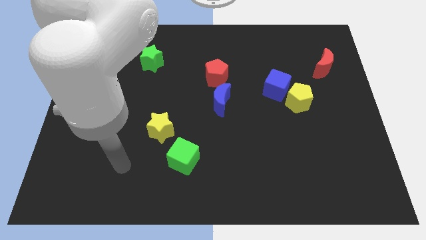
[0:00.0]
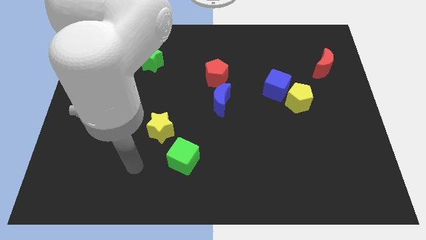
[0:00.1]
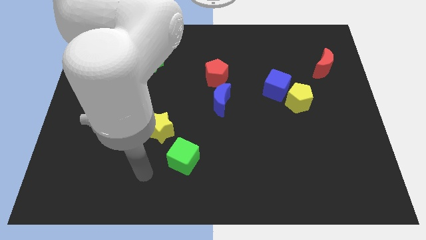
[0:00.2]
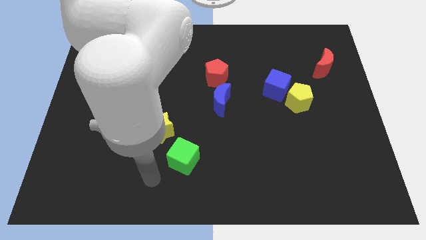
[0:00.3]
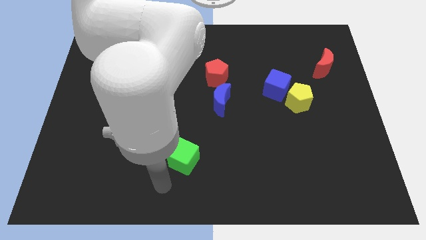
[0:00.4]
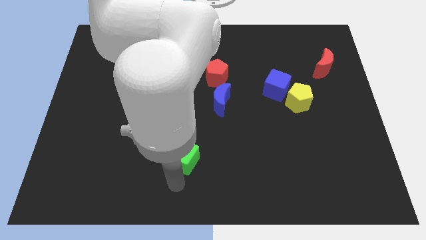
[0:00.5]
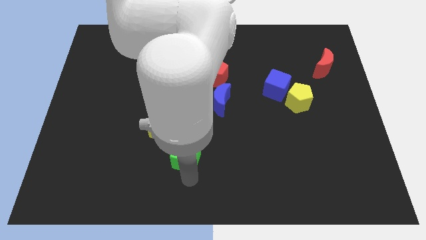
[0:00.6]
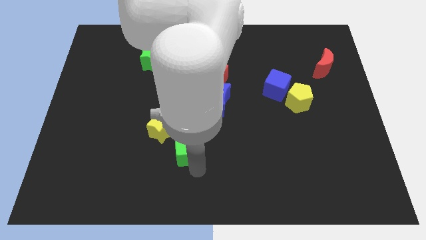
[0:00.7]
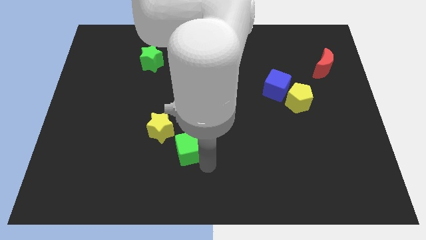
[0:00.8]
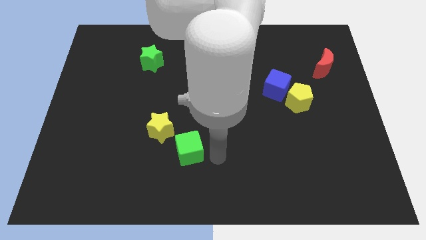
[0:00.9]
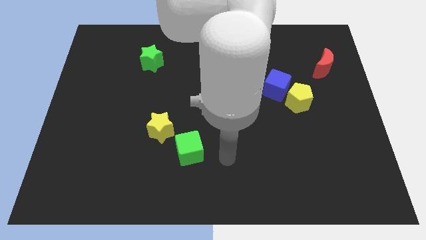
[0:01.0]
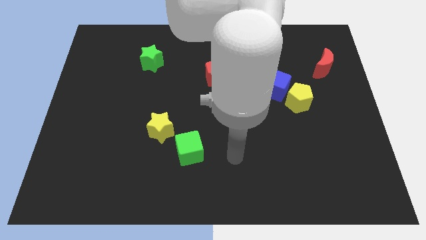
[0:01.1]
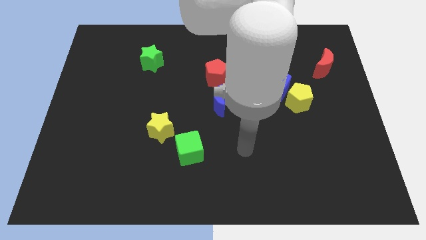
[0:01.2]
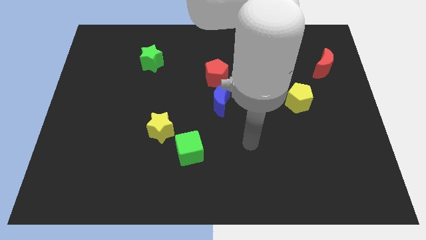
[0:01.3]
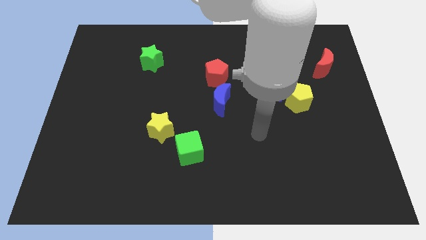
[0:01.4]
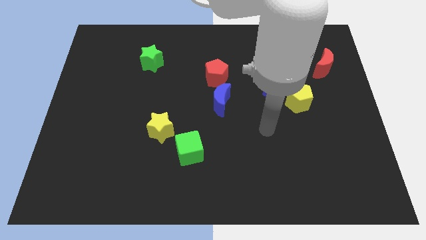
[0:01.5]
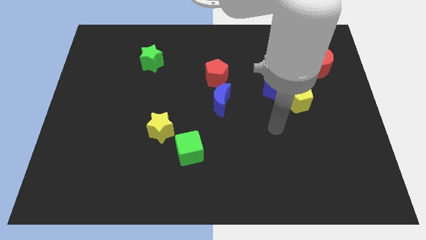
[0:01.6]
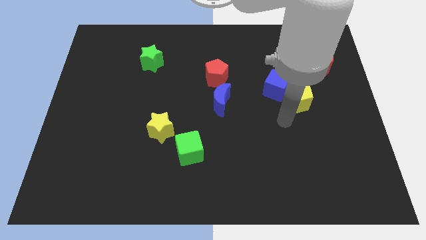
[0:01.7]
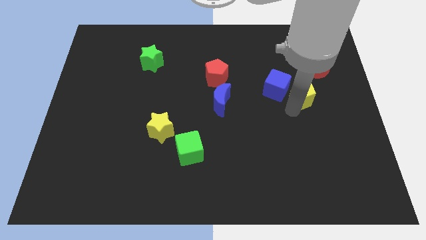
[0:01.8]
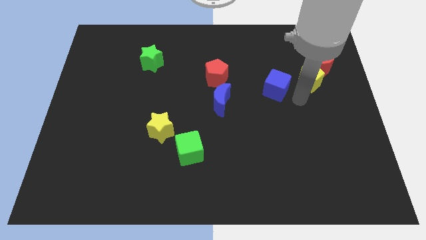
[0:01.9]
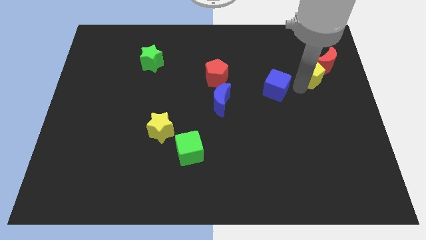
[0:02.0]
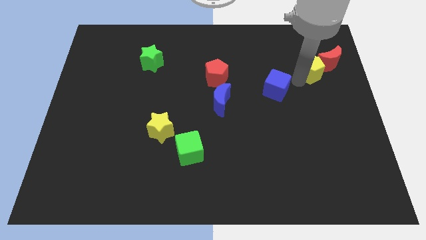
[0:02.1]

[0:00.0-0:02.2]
pull the blue cube apart from the yellow pentagon

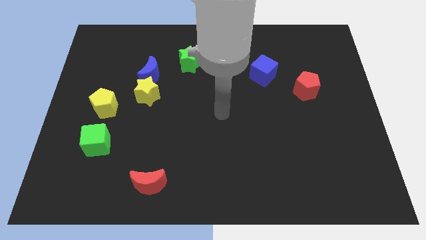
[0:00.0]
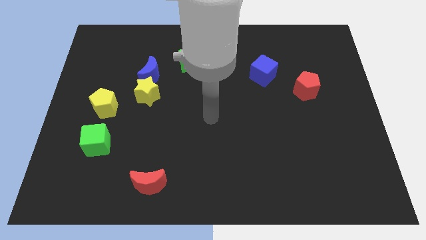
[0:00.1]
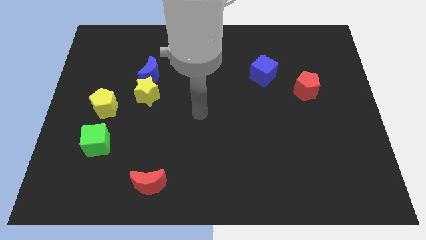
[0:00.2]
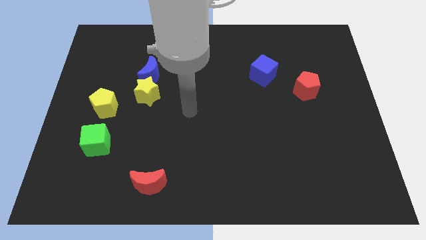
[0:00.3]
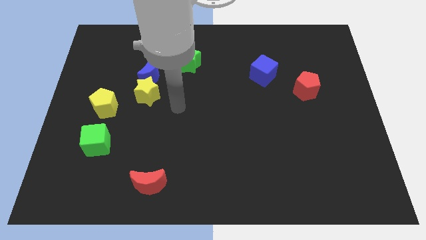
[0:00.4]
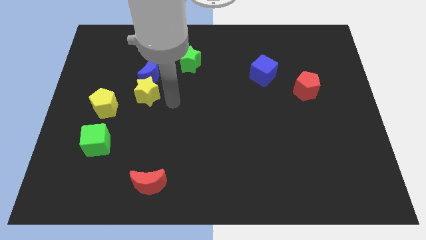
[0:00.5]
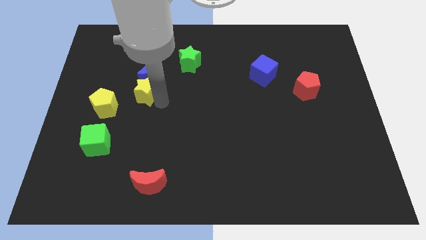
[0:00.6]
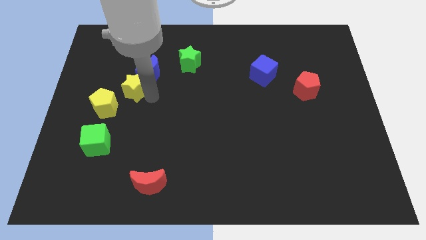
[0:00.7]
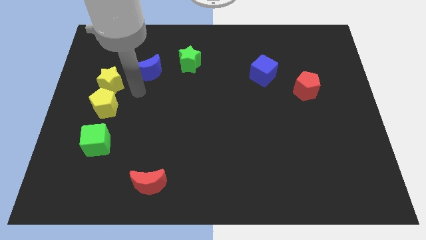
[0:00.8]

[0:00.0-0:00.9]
separate the blue moon from the yellow star

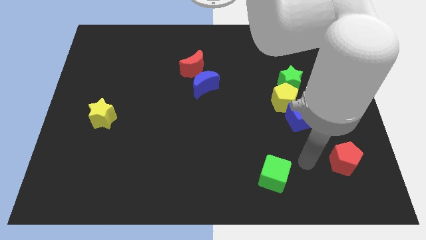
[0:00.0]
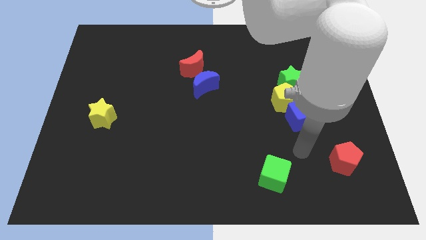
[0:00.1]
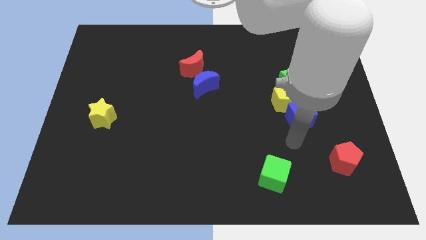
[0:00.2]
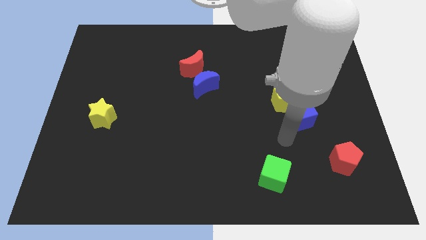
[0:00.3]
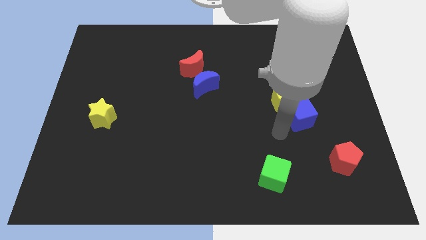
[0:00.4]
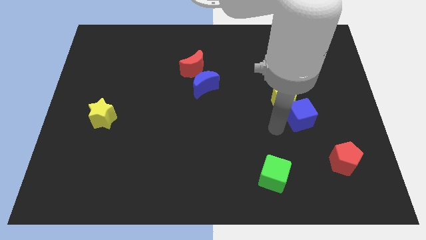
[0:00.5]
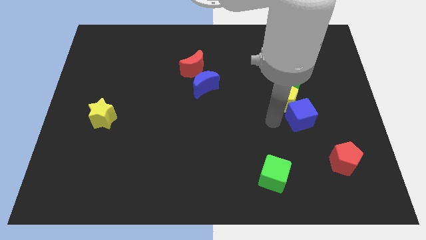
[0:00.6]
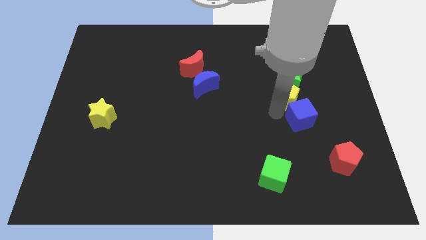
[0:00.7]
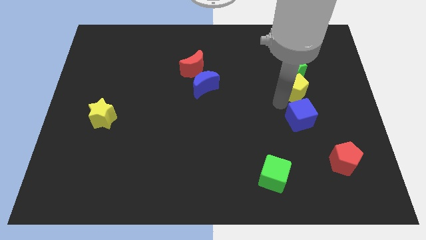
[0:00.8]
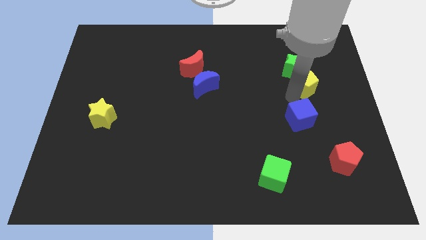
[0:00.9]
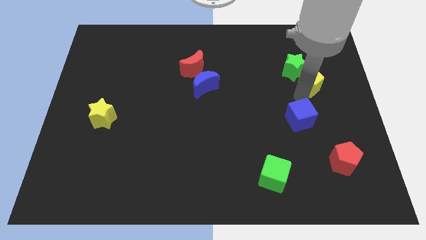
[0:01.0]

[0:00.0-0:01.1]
separate the blue cube from the yellow pentagon

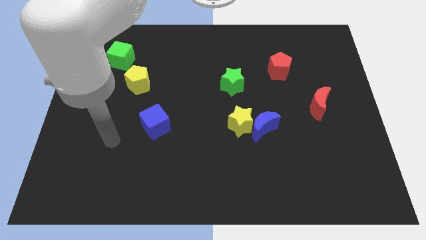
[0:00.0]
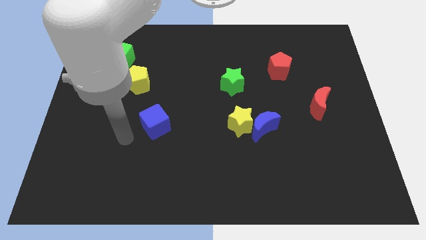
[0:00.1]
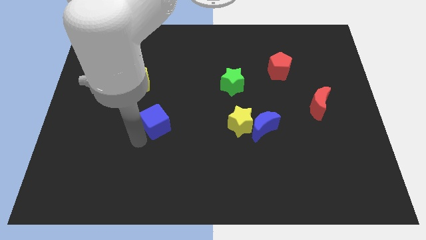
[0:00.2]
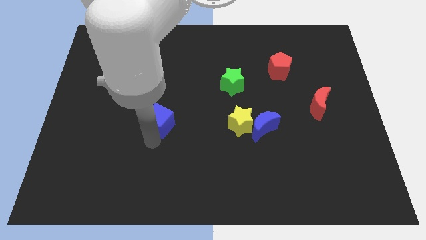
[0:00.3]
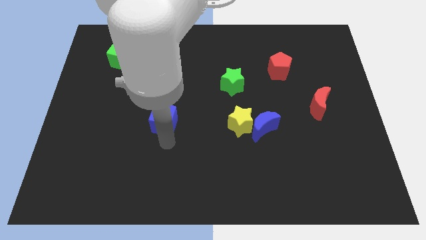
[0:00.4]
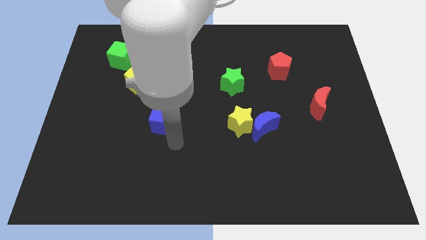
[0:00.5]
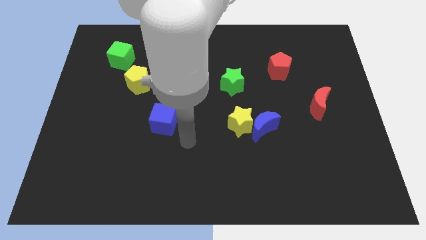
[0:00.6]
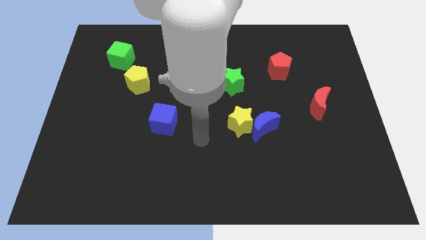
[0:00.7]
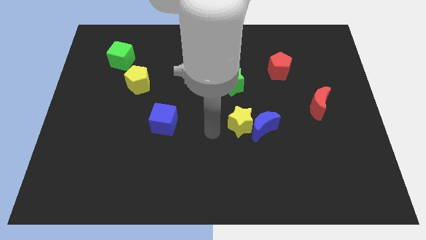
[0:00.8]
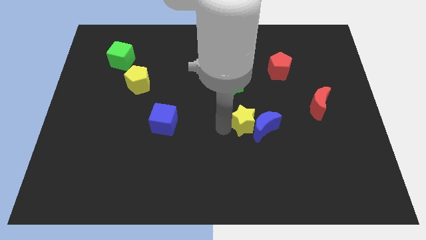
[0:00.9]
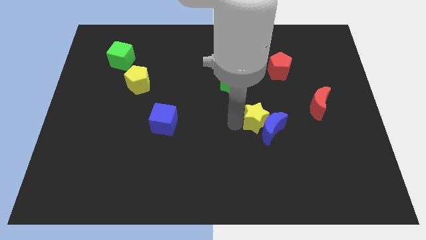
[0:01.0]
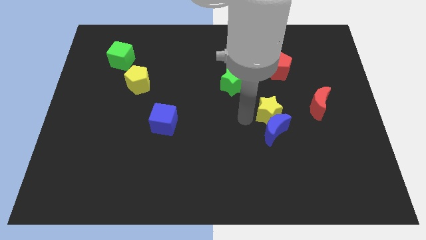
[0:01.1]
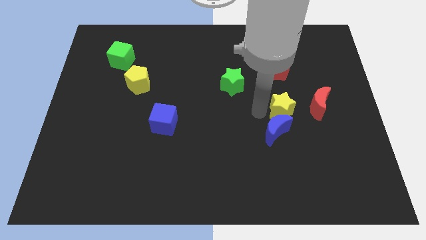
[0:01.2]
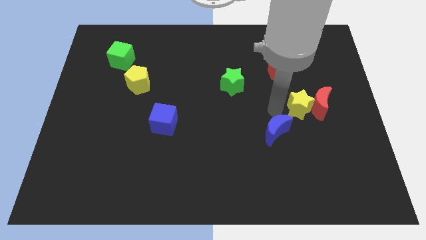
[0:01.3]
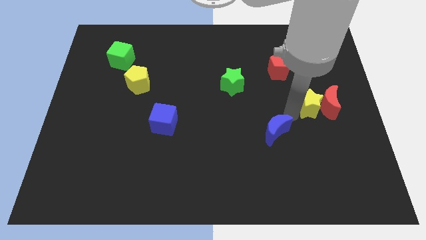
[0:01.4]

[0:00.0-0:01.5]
move the blue moon away from the yellow star

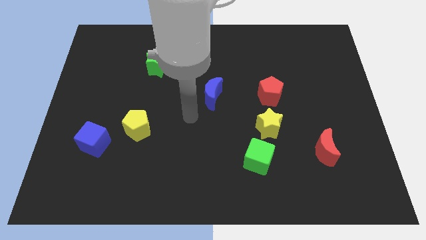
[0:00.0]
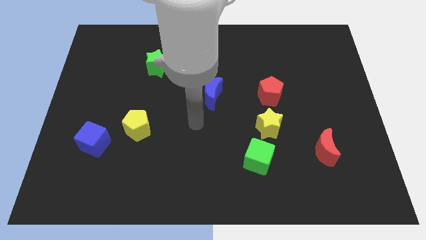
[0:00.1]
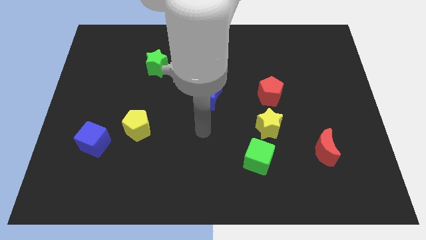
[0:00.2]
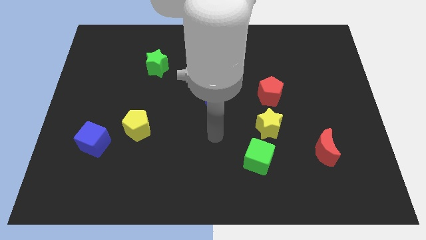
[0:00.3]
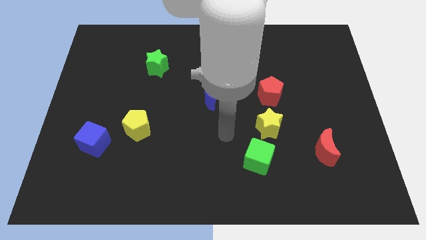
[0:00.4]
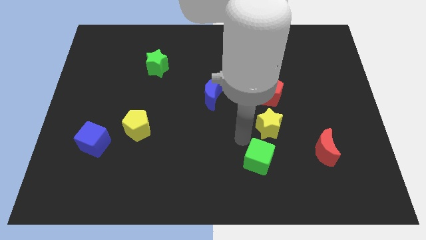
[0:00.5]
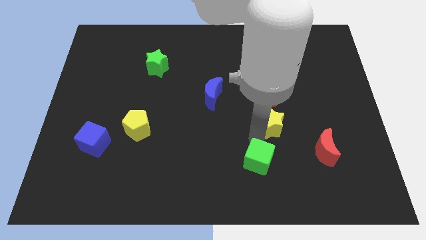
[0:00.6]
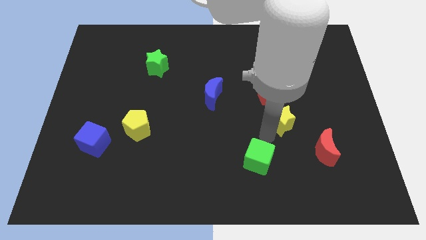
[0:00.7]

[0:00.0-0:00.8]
move the green cube away from the yellow star

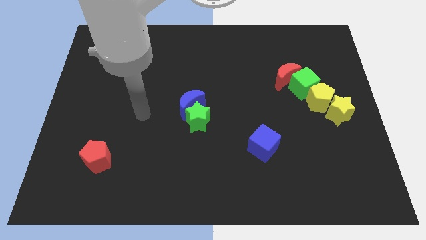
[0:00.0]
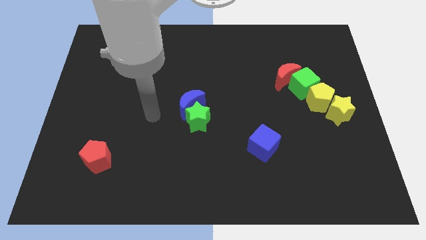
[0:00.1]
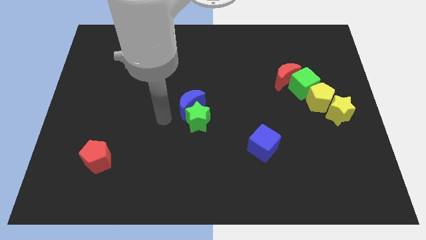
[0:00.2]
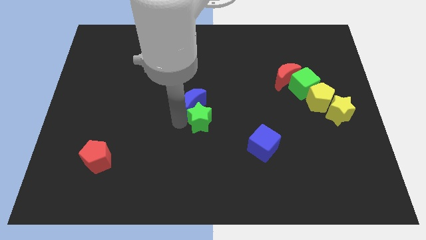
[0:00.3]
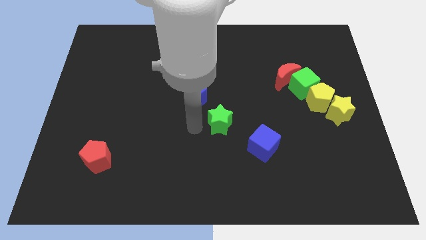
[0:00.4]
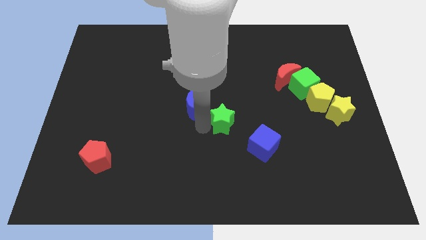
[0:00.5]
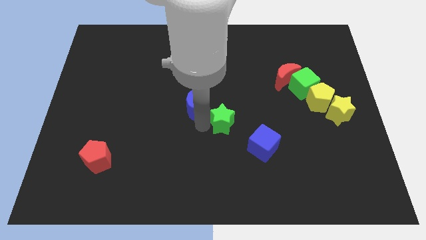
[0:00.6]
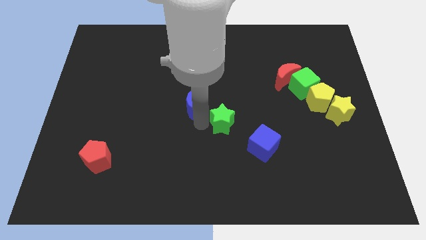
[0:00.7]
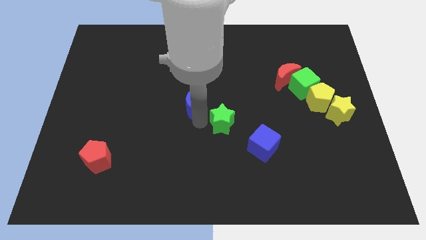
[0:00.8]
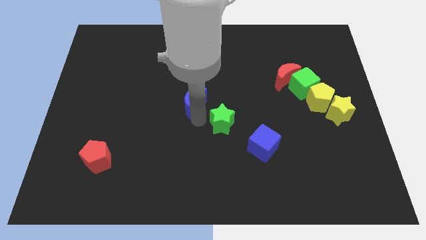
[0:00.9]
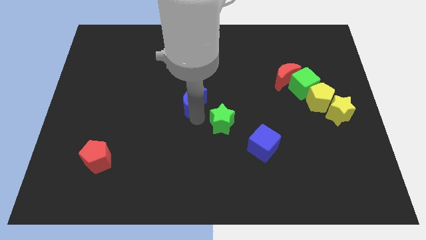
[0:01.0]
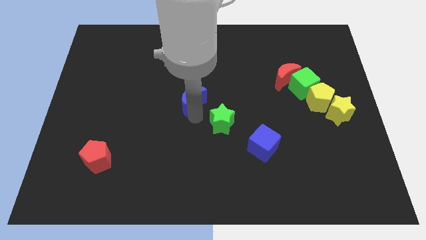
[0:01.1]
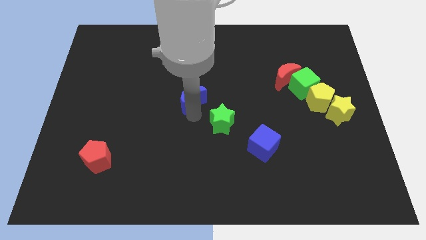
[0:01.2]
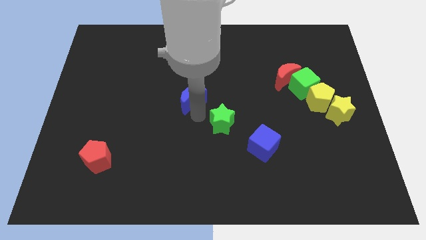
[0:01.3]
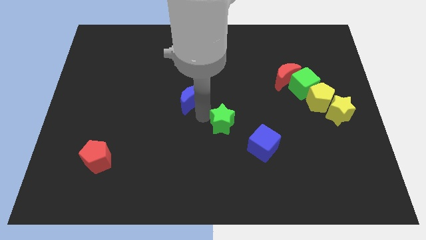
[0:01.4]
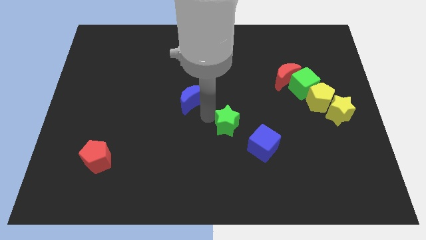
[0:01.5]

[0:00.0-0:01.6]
pull the blue moon apart from the green star

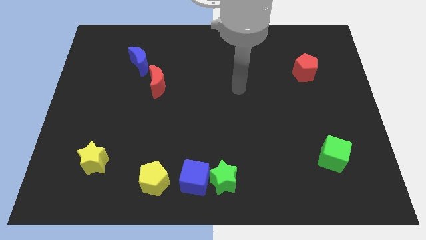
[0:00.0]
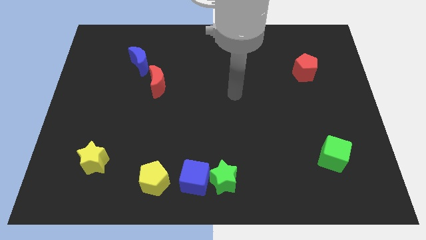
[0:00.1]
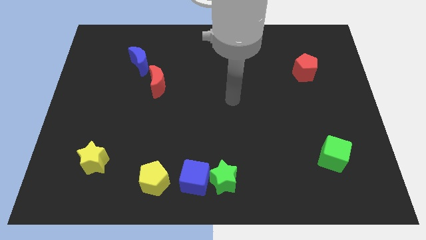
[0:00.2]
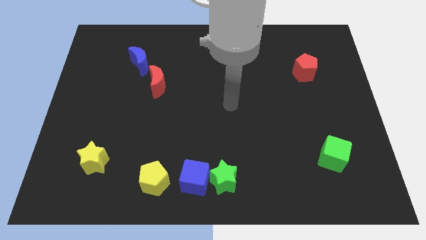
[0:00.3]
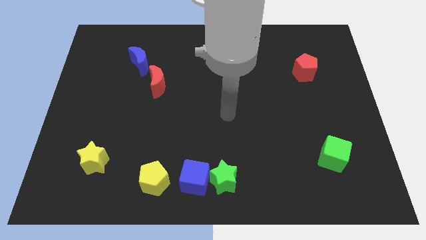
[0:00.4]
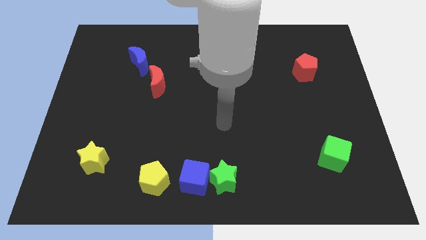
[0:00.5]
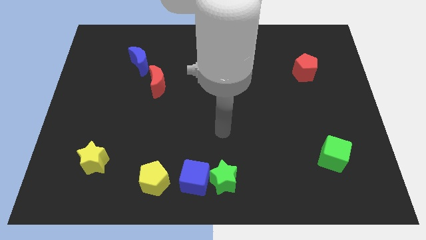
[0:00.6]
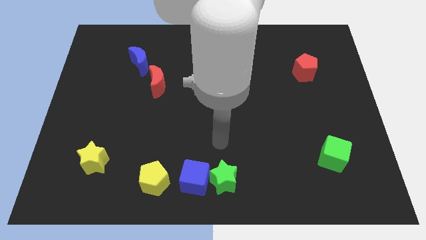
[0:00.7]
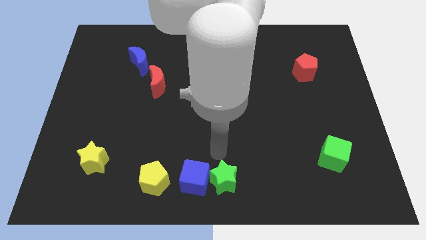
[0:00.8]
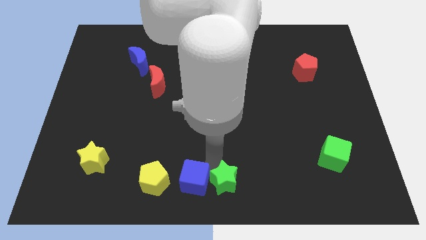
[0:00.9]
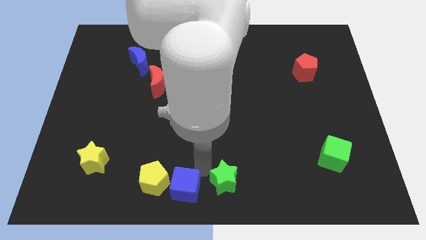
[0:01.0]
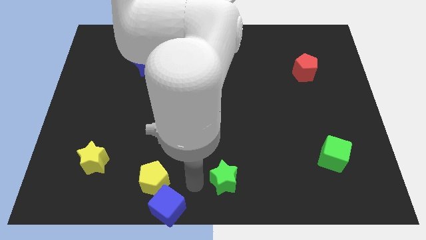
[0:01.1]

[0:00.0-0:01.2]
separate the green star from the blue cube
